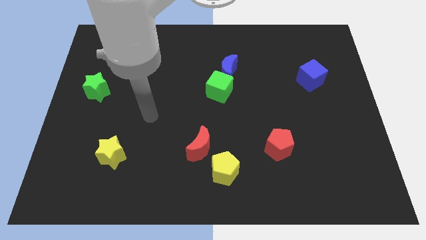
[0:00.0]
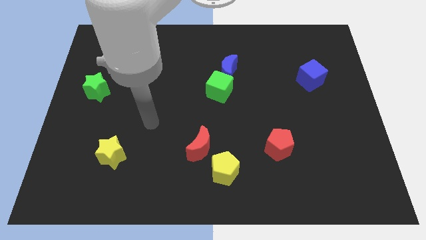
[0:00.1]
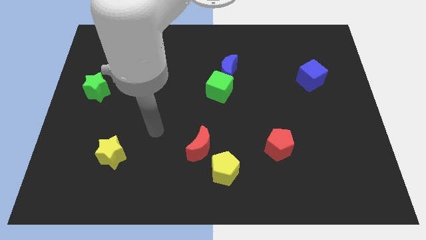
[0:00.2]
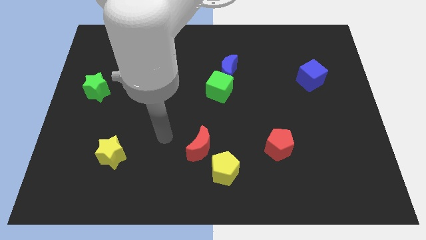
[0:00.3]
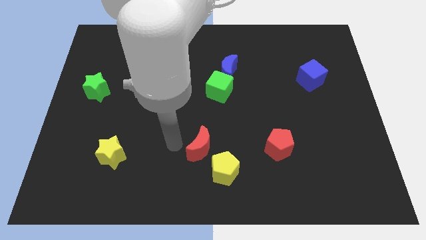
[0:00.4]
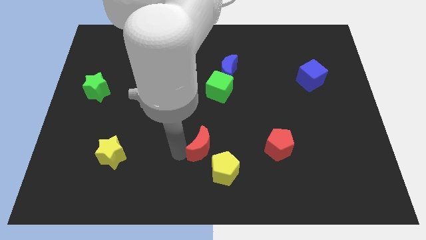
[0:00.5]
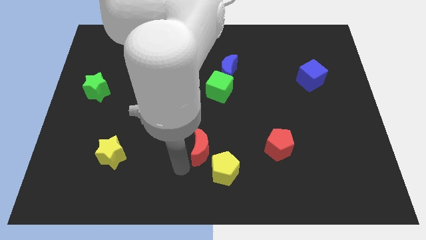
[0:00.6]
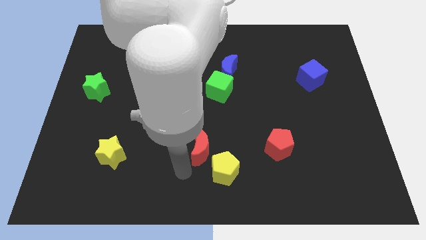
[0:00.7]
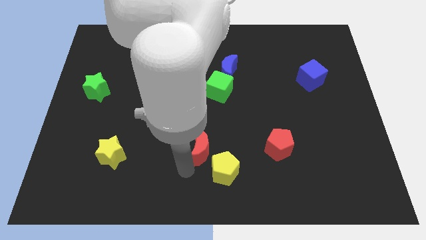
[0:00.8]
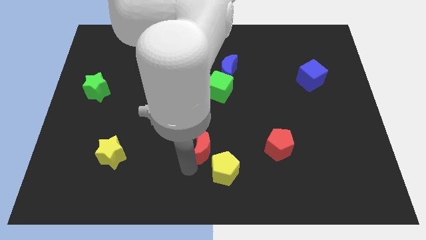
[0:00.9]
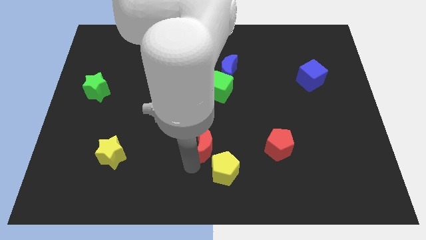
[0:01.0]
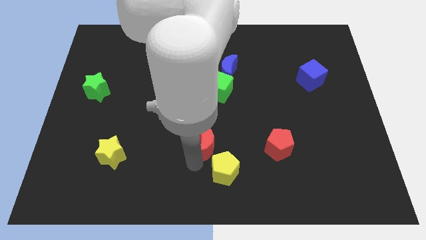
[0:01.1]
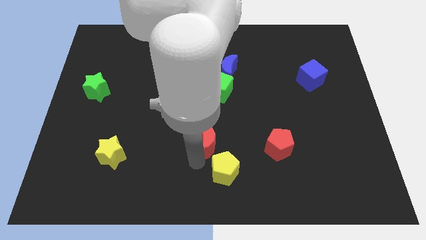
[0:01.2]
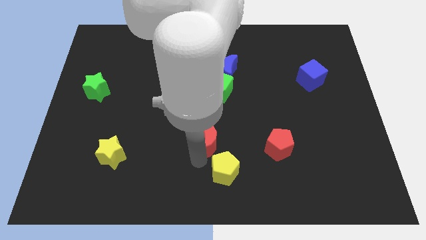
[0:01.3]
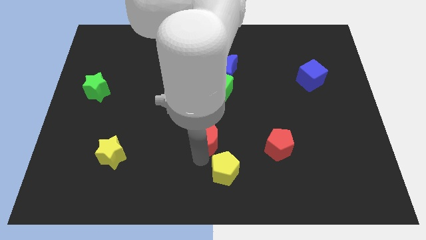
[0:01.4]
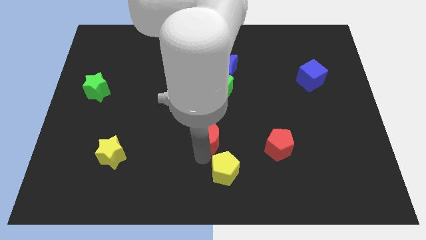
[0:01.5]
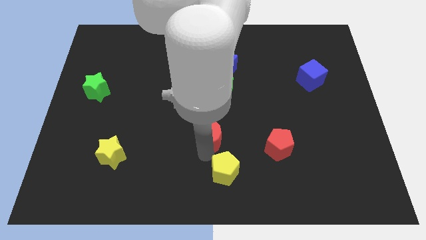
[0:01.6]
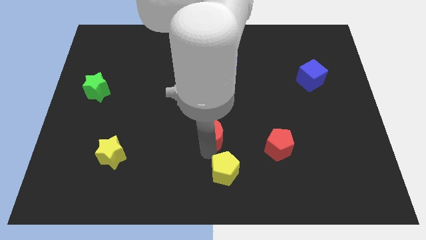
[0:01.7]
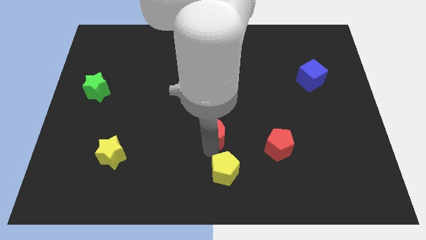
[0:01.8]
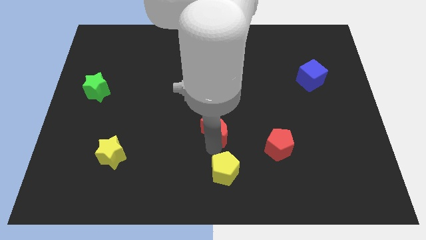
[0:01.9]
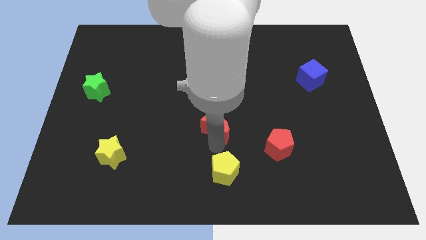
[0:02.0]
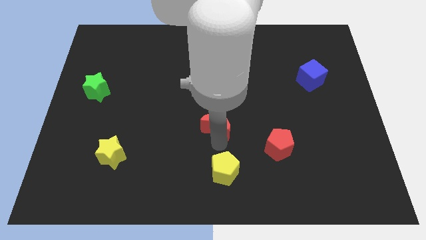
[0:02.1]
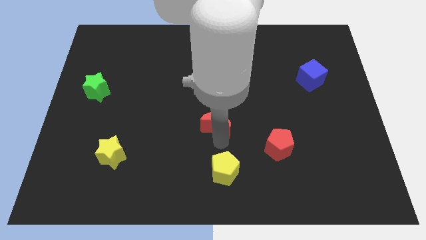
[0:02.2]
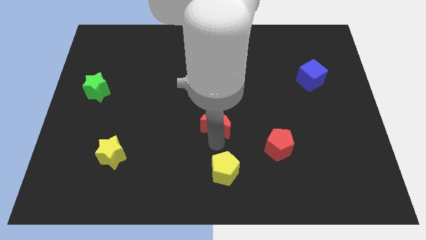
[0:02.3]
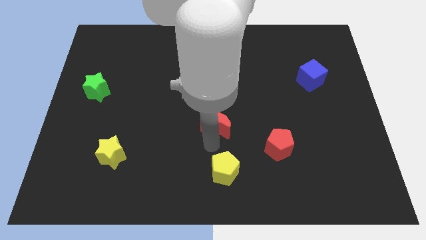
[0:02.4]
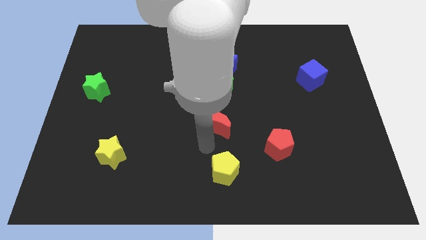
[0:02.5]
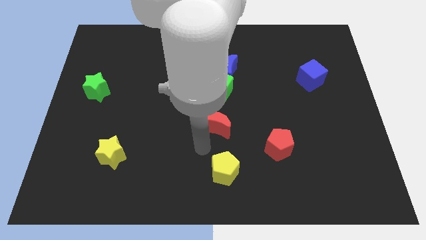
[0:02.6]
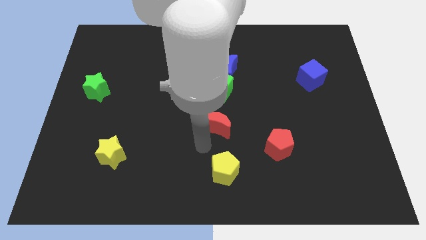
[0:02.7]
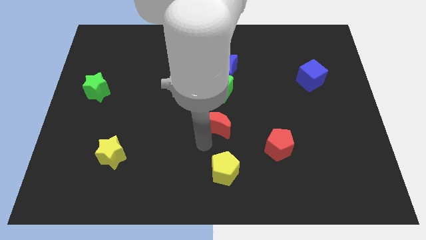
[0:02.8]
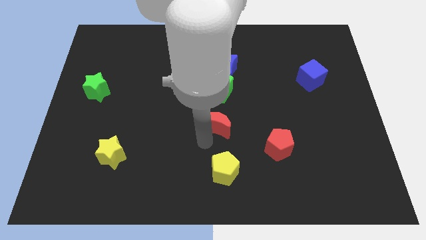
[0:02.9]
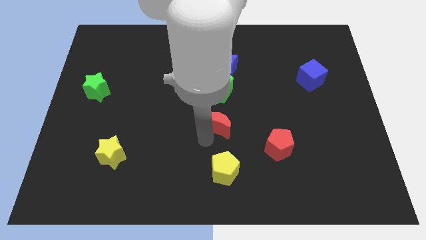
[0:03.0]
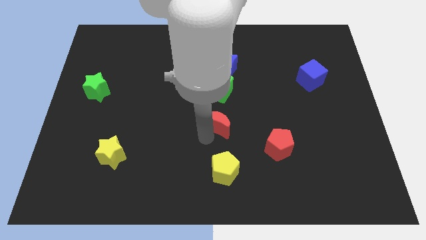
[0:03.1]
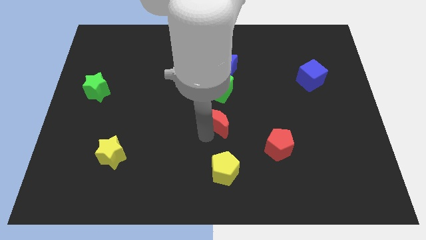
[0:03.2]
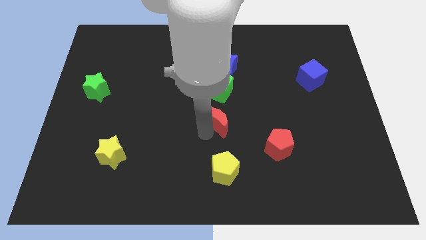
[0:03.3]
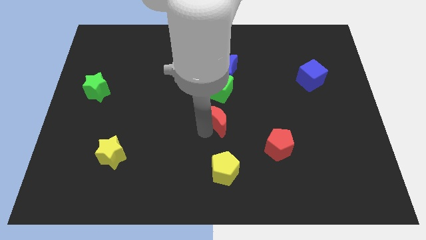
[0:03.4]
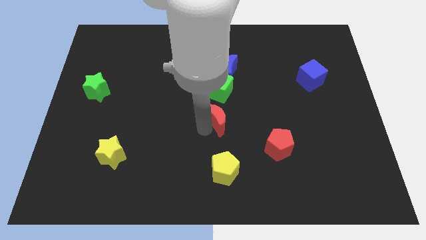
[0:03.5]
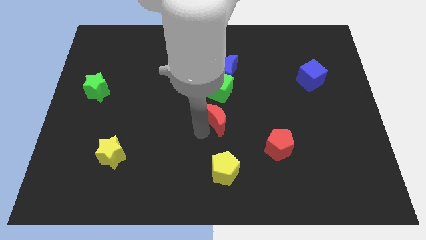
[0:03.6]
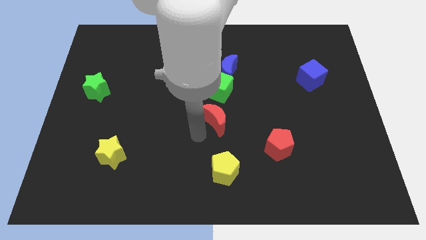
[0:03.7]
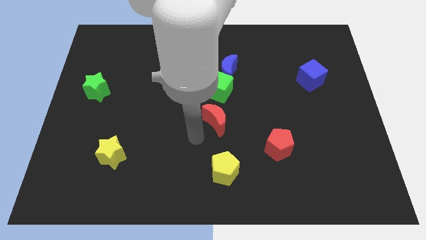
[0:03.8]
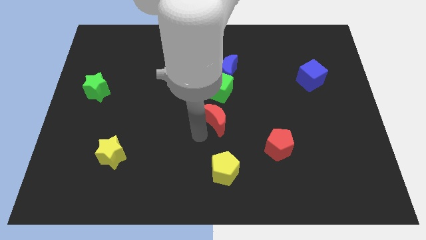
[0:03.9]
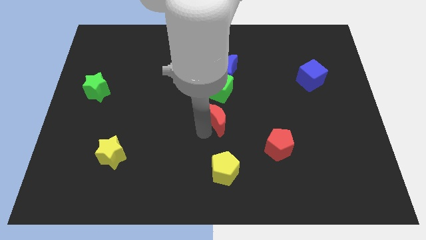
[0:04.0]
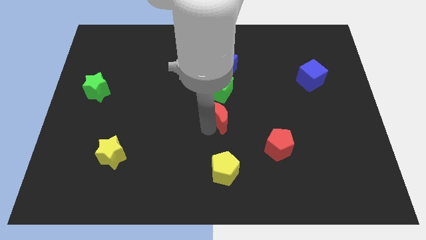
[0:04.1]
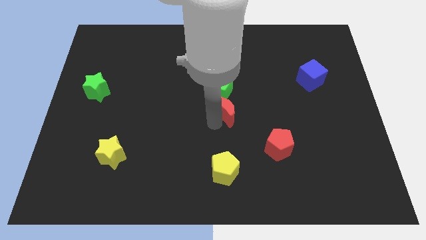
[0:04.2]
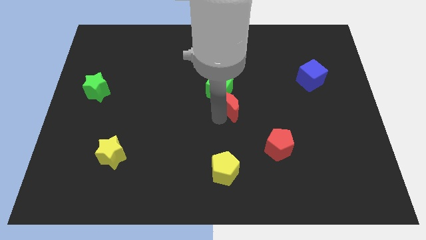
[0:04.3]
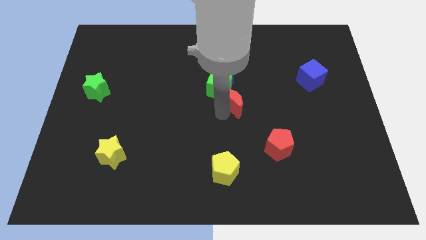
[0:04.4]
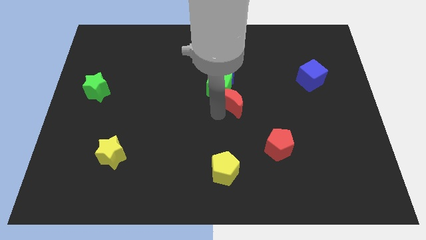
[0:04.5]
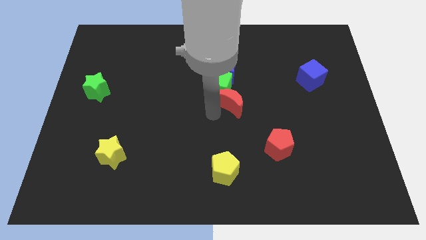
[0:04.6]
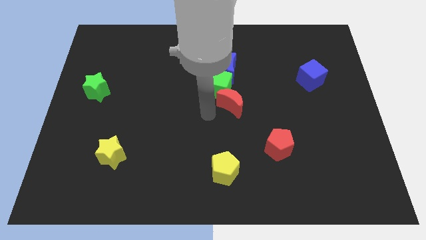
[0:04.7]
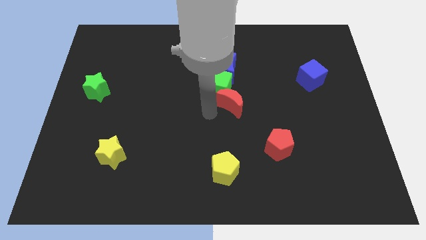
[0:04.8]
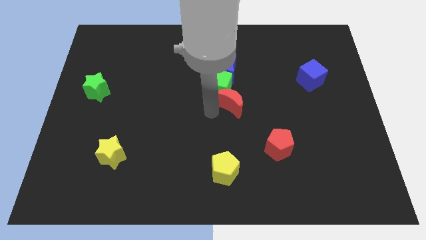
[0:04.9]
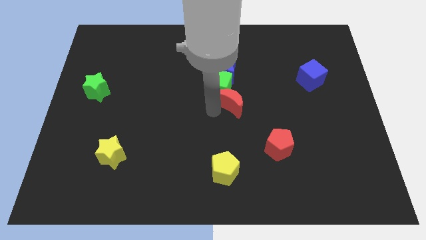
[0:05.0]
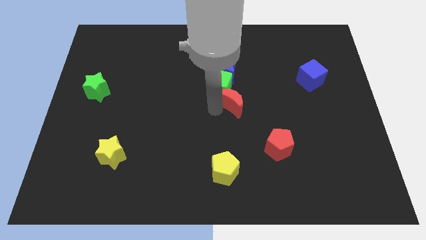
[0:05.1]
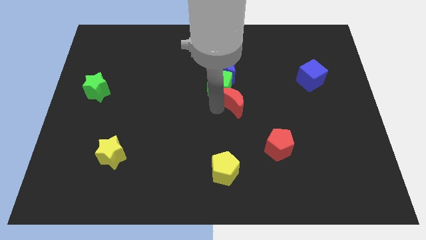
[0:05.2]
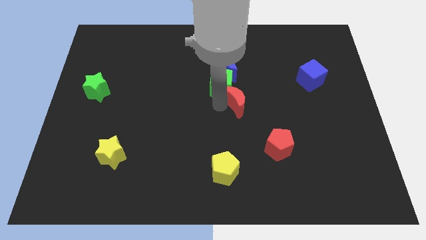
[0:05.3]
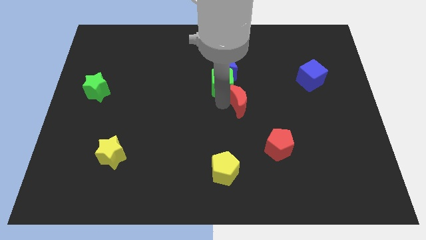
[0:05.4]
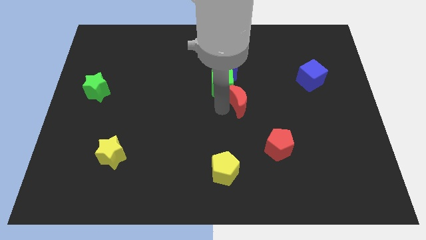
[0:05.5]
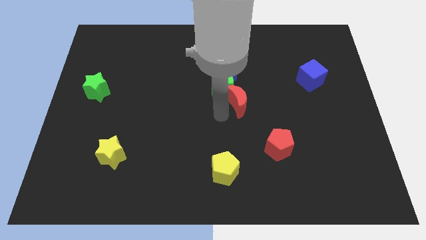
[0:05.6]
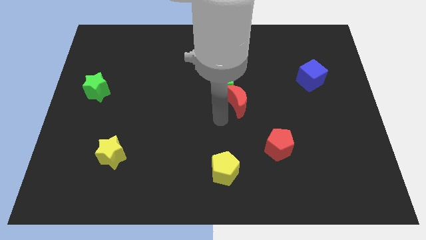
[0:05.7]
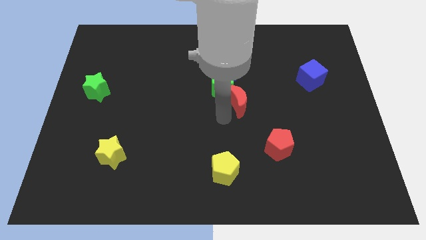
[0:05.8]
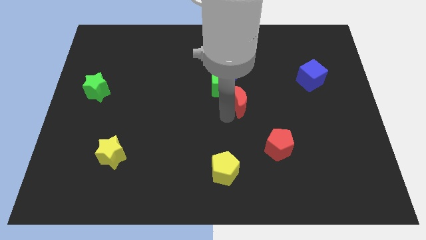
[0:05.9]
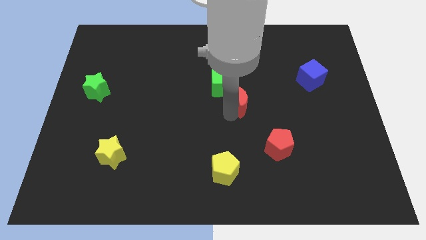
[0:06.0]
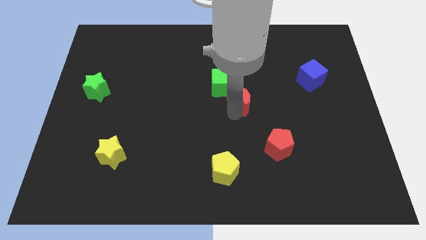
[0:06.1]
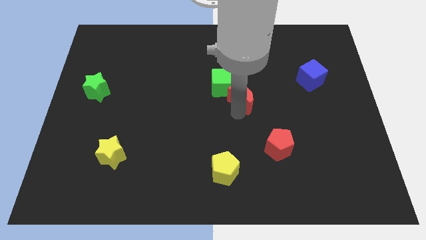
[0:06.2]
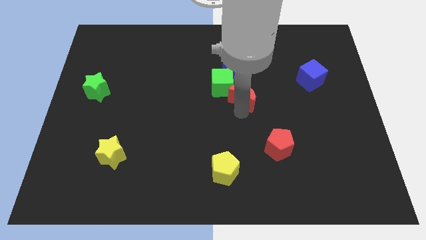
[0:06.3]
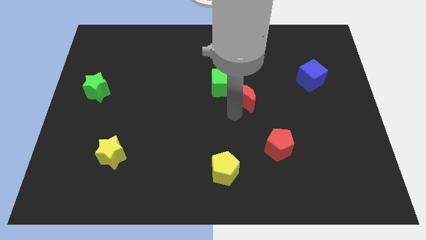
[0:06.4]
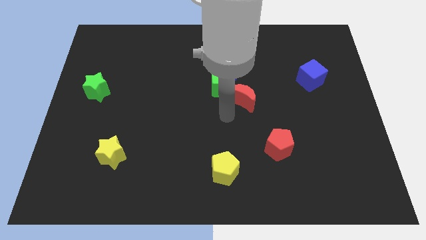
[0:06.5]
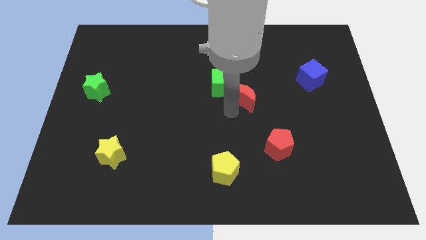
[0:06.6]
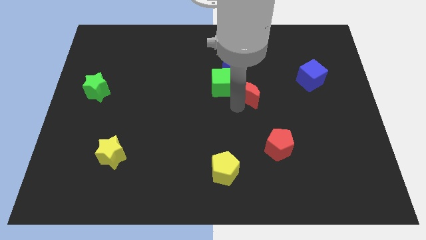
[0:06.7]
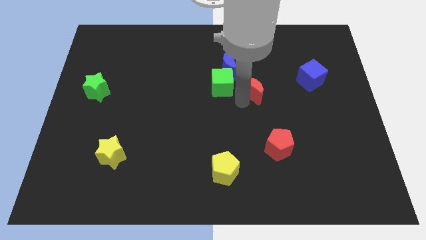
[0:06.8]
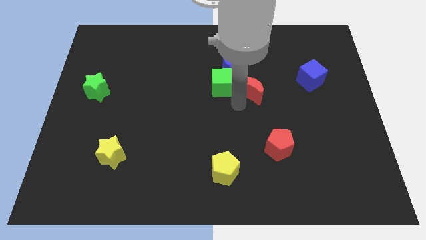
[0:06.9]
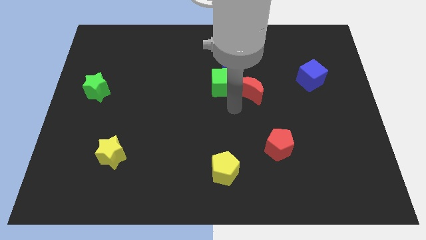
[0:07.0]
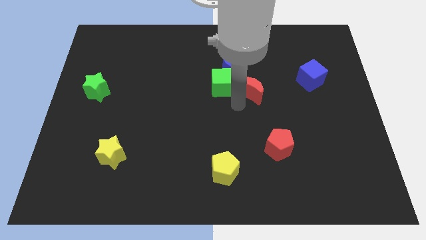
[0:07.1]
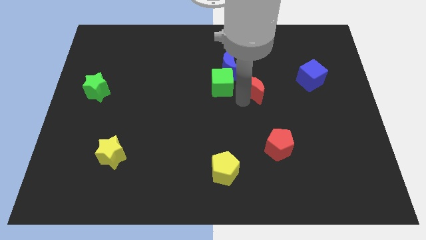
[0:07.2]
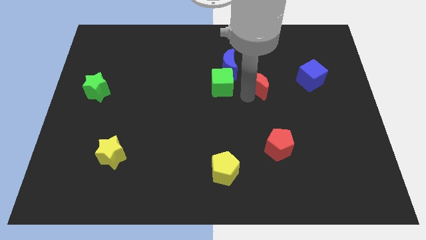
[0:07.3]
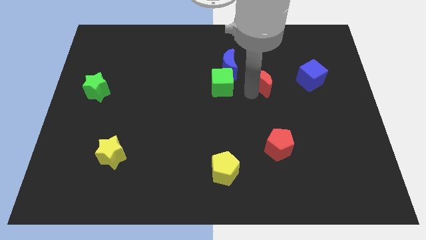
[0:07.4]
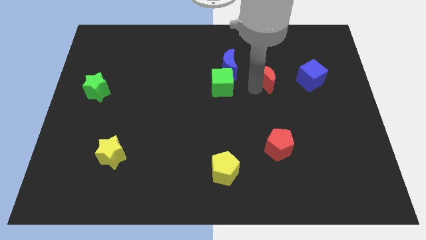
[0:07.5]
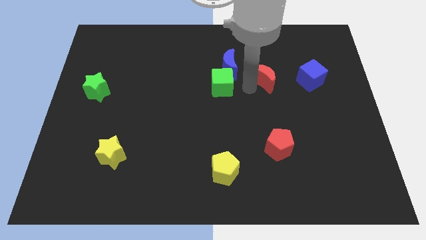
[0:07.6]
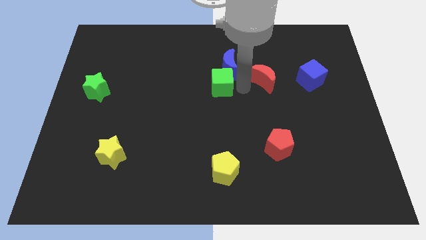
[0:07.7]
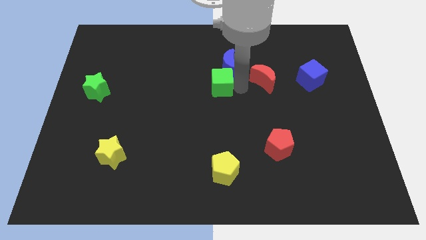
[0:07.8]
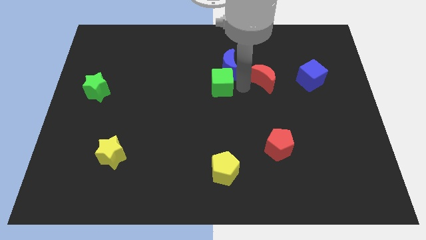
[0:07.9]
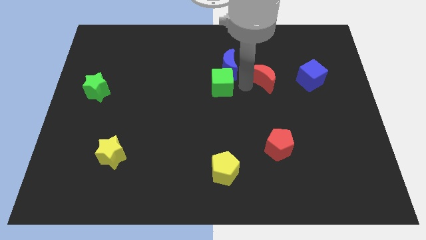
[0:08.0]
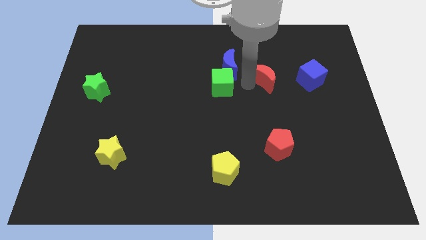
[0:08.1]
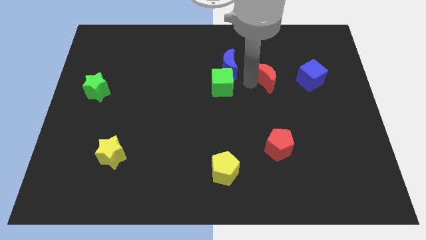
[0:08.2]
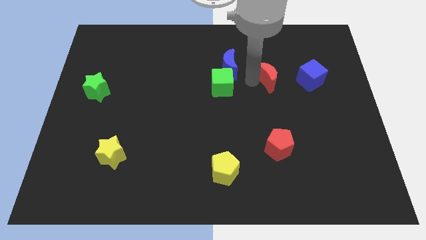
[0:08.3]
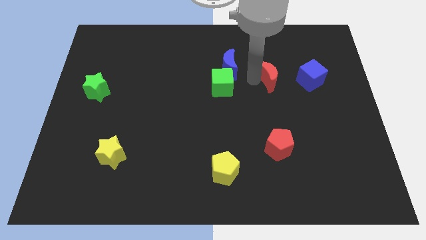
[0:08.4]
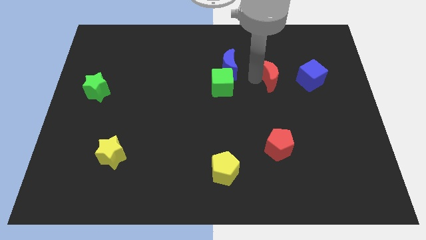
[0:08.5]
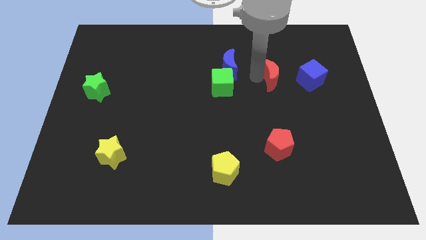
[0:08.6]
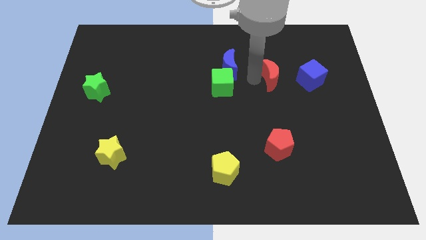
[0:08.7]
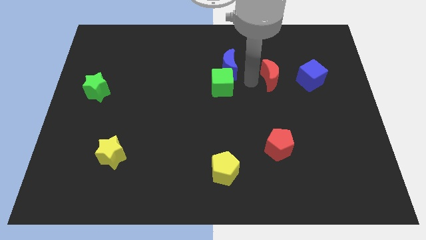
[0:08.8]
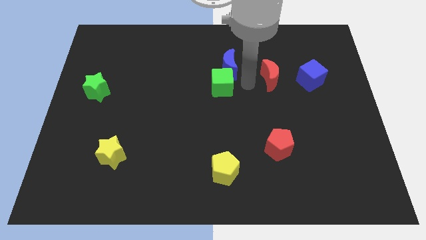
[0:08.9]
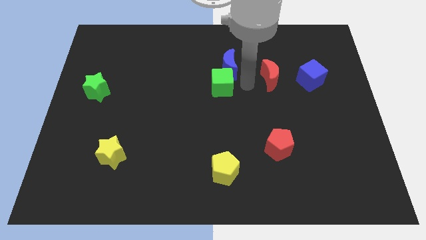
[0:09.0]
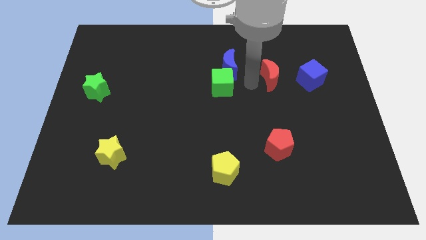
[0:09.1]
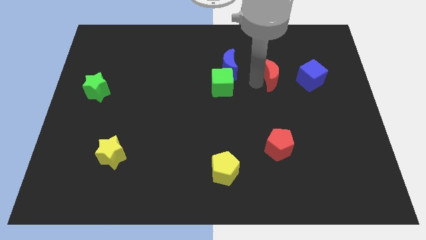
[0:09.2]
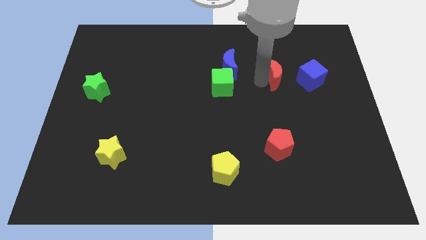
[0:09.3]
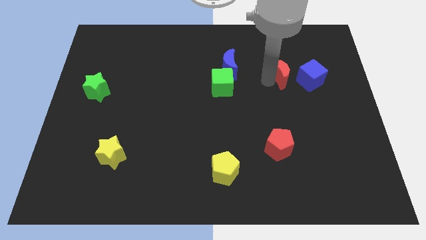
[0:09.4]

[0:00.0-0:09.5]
put the red moon to the top left of the blue cube
